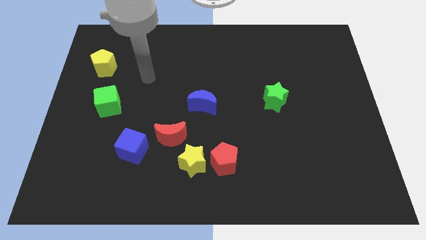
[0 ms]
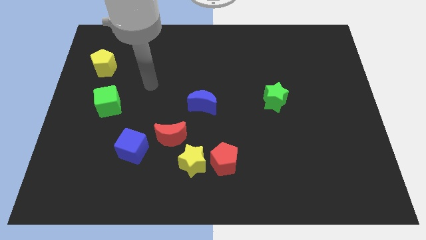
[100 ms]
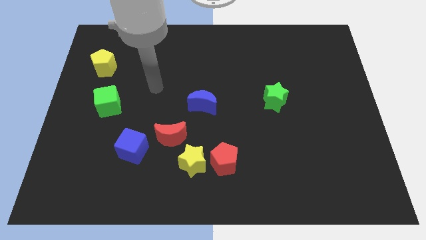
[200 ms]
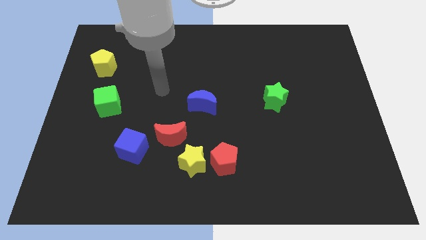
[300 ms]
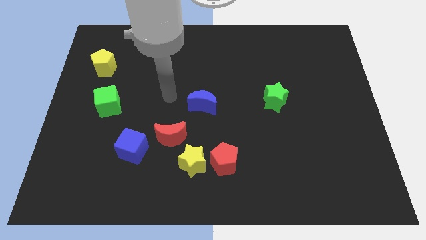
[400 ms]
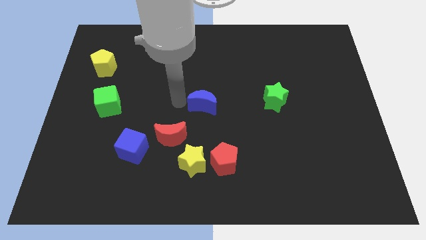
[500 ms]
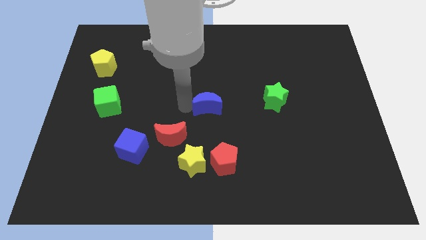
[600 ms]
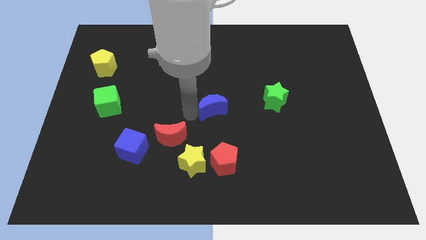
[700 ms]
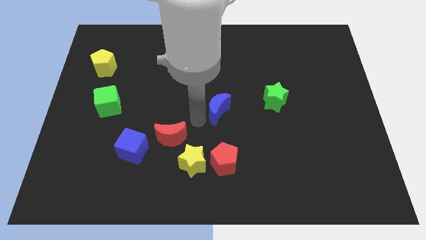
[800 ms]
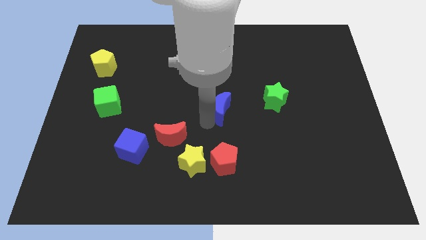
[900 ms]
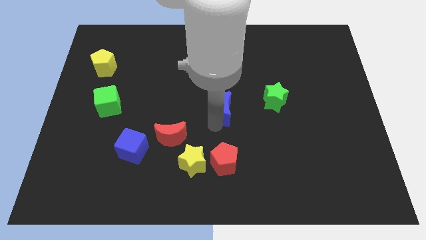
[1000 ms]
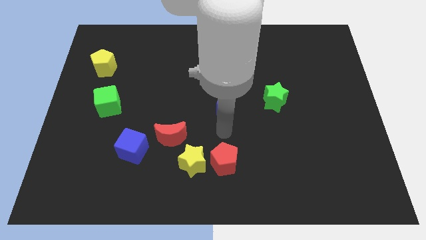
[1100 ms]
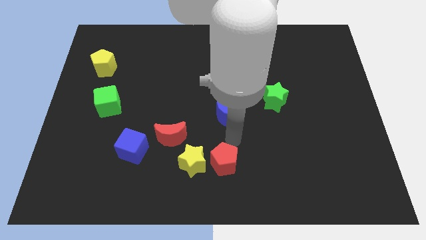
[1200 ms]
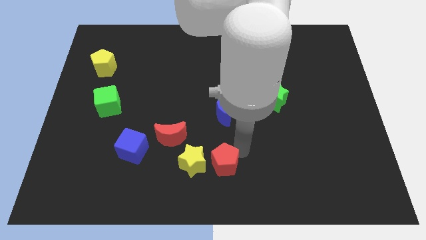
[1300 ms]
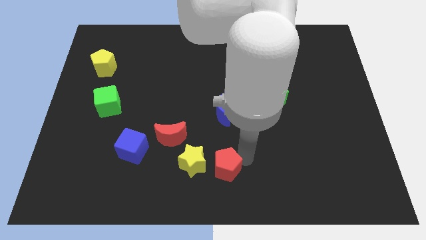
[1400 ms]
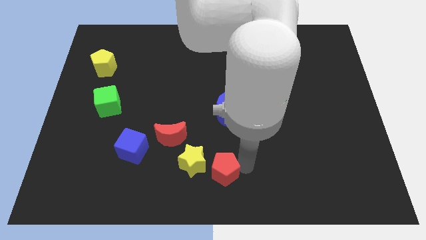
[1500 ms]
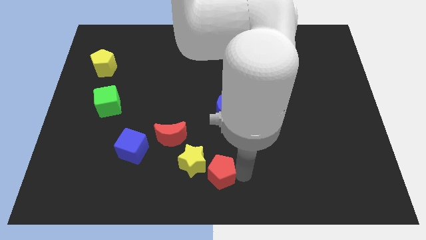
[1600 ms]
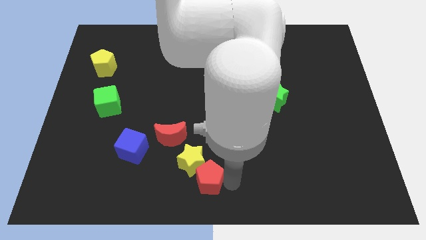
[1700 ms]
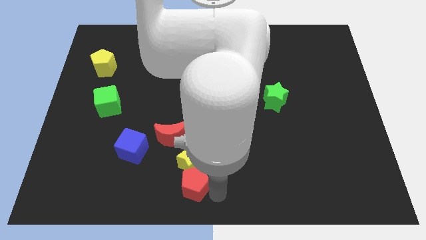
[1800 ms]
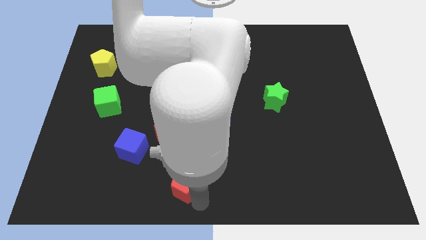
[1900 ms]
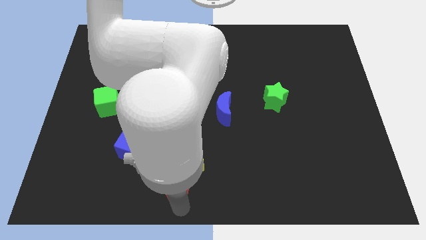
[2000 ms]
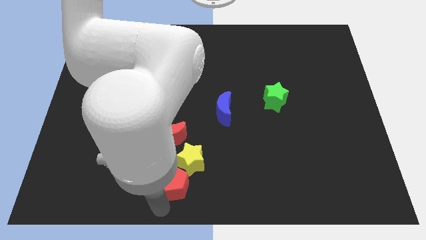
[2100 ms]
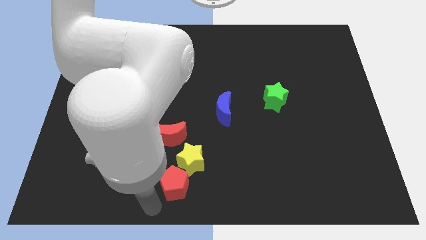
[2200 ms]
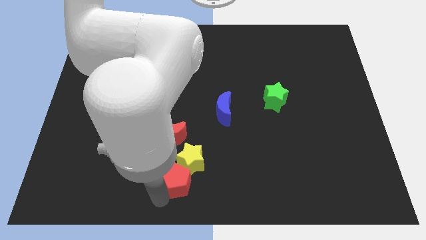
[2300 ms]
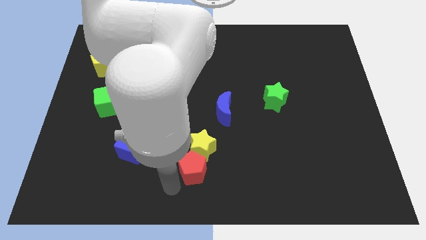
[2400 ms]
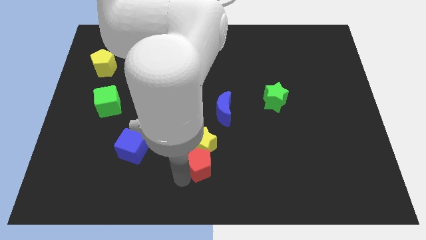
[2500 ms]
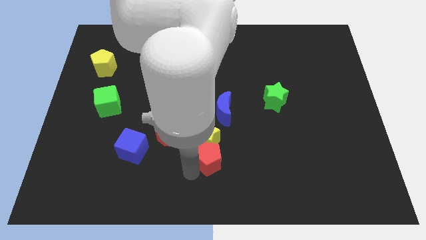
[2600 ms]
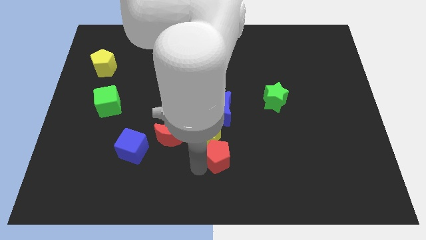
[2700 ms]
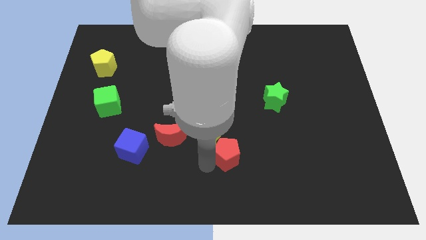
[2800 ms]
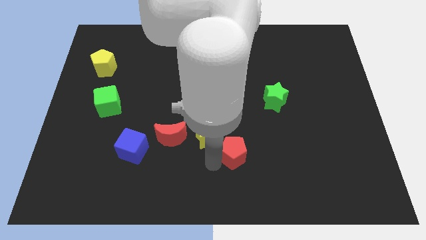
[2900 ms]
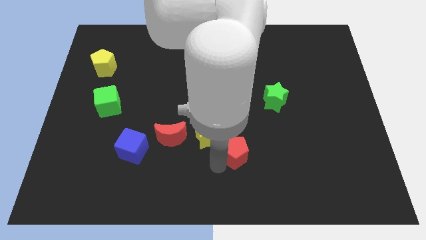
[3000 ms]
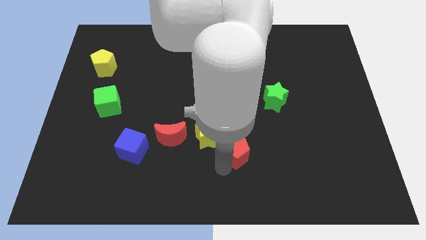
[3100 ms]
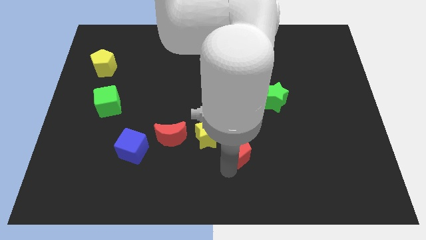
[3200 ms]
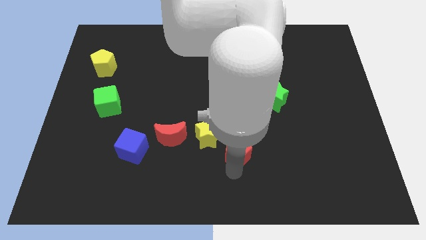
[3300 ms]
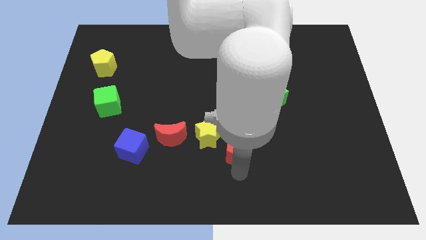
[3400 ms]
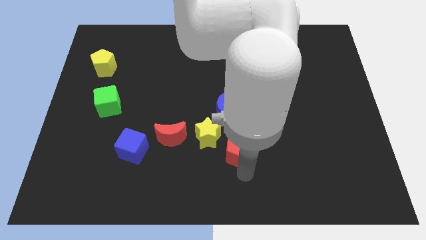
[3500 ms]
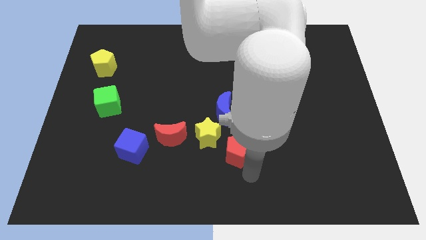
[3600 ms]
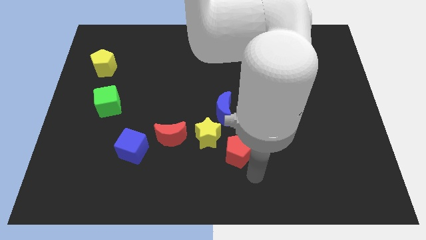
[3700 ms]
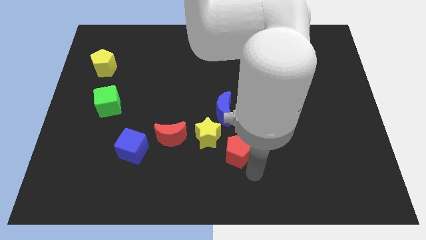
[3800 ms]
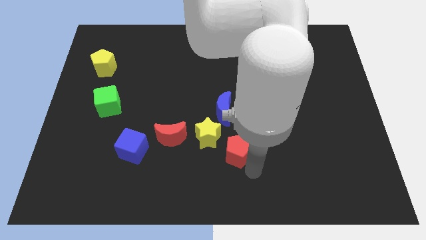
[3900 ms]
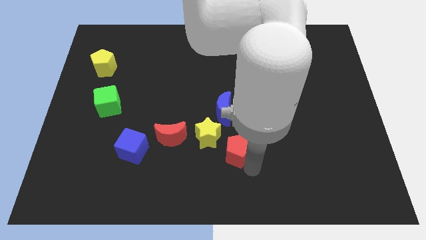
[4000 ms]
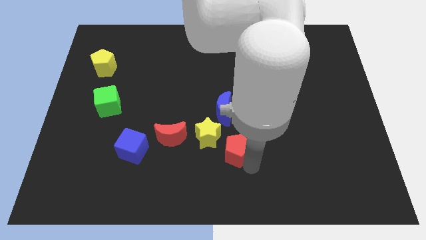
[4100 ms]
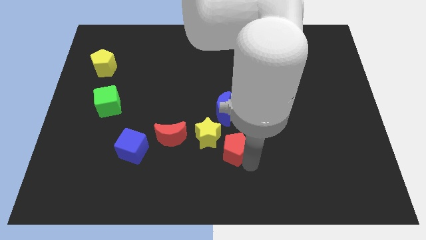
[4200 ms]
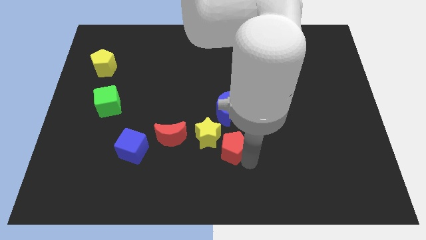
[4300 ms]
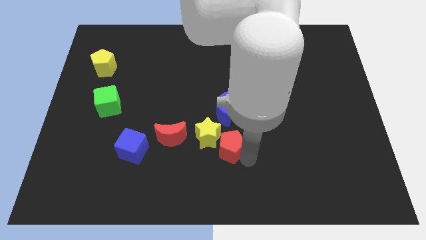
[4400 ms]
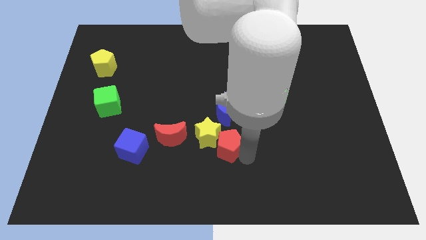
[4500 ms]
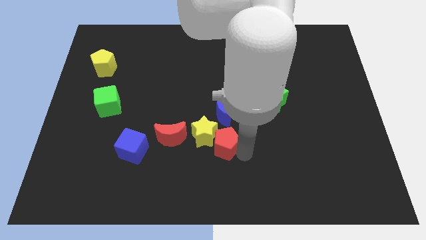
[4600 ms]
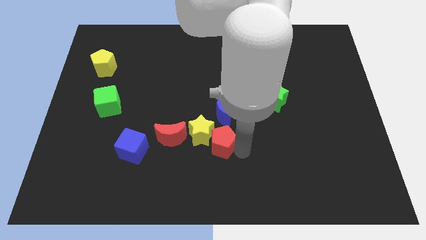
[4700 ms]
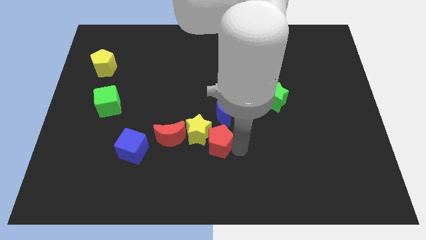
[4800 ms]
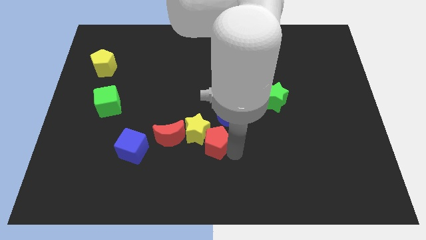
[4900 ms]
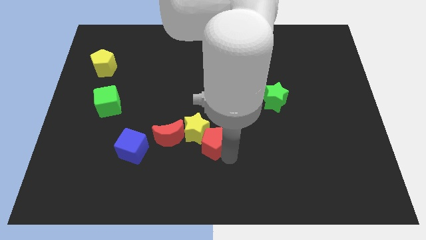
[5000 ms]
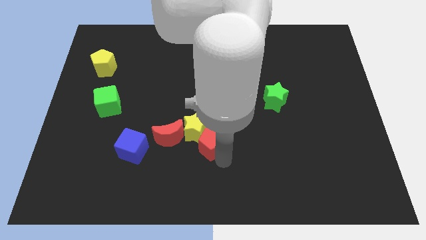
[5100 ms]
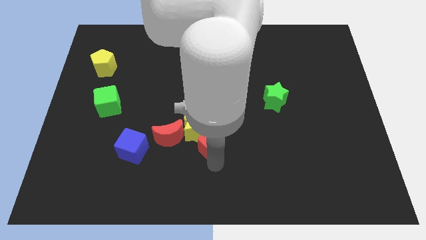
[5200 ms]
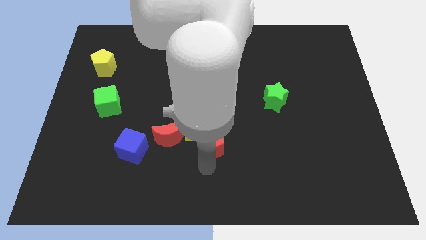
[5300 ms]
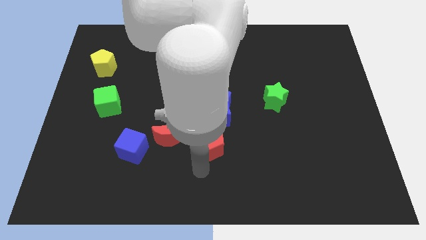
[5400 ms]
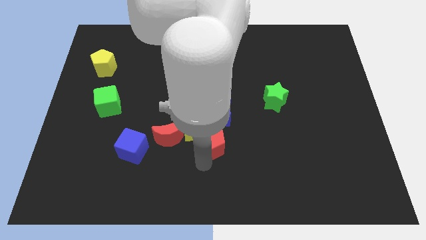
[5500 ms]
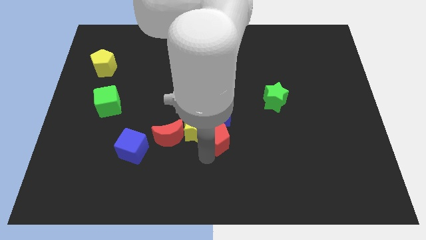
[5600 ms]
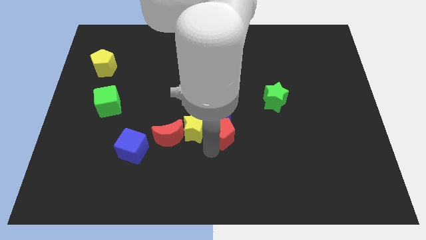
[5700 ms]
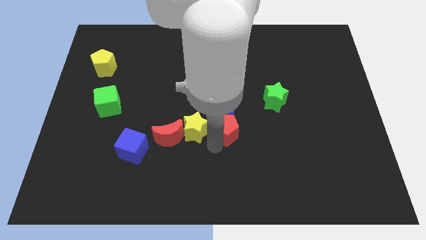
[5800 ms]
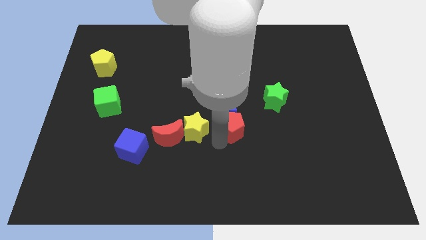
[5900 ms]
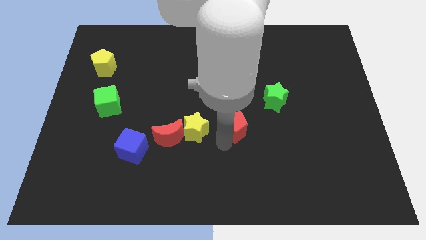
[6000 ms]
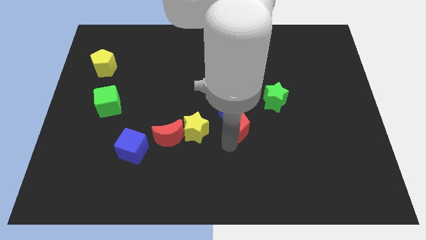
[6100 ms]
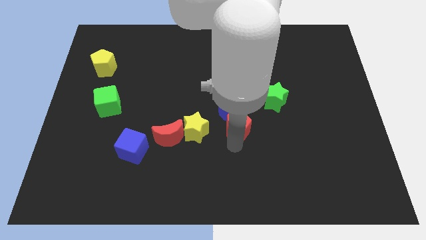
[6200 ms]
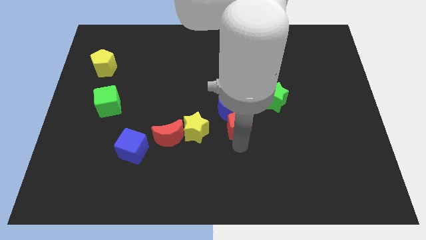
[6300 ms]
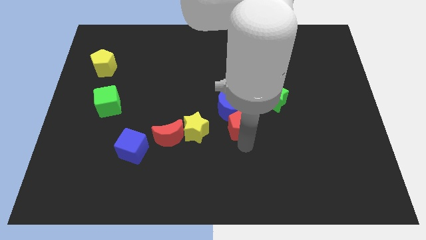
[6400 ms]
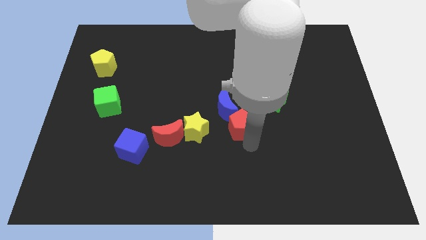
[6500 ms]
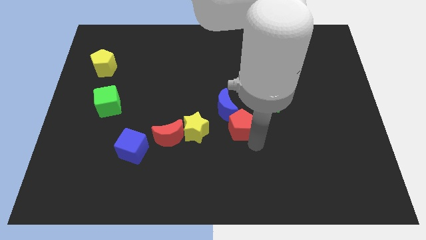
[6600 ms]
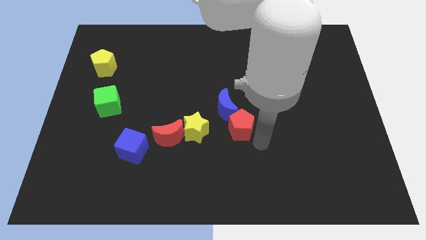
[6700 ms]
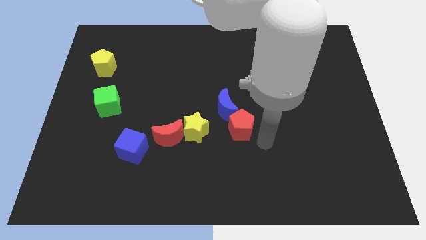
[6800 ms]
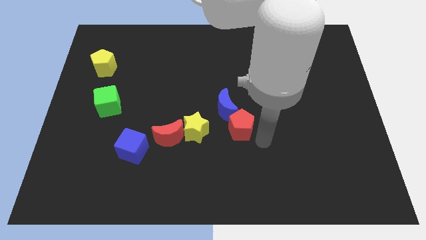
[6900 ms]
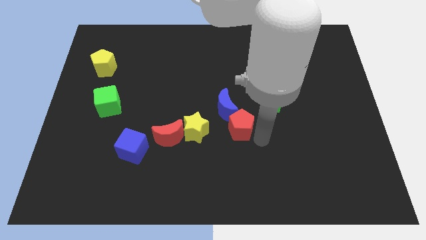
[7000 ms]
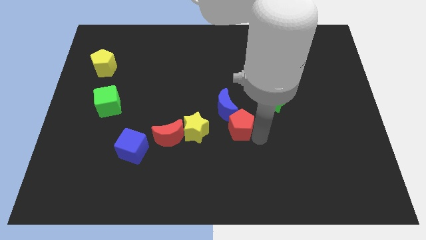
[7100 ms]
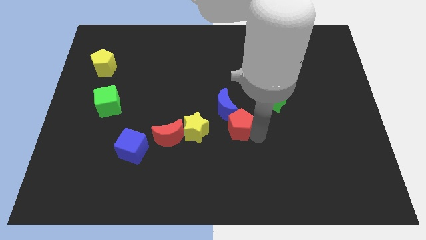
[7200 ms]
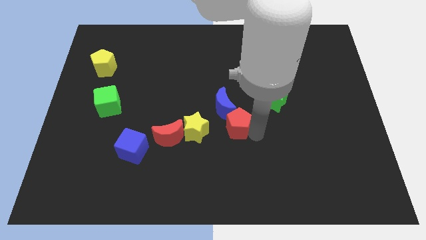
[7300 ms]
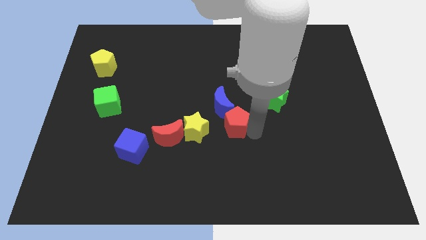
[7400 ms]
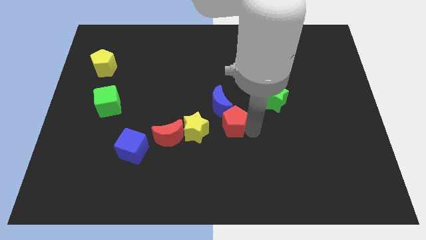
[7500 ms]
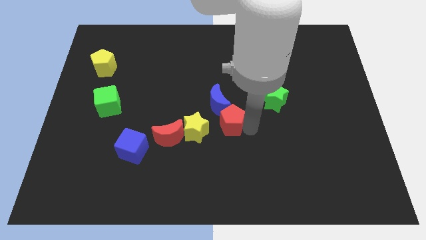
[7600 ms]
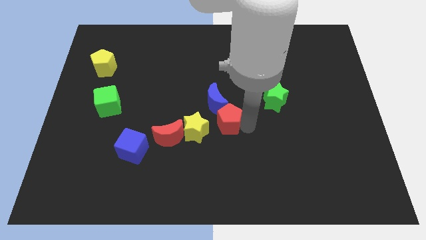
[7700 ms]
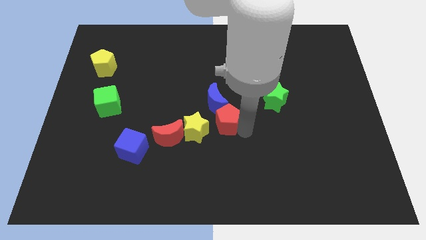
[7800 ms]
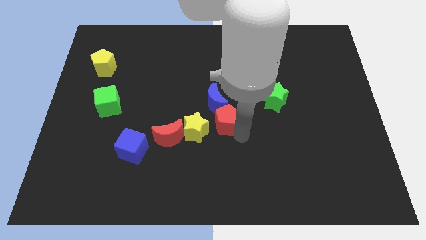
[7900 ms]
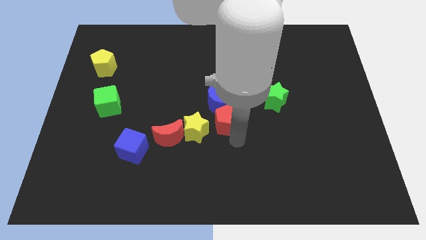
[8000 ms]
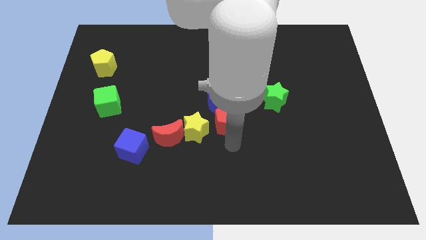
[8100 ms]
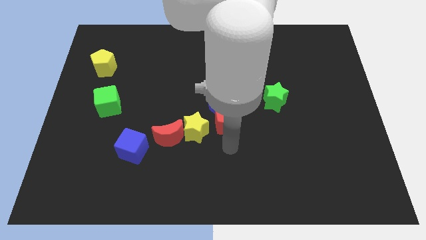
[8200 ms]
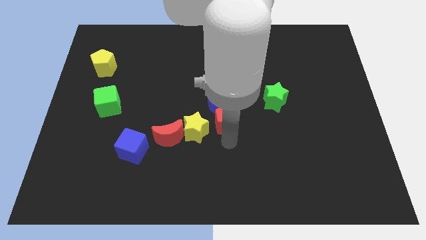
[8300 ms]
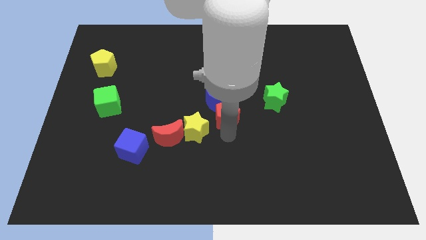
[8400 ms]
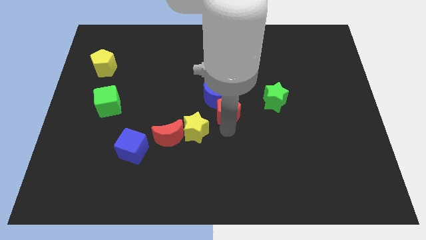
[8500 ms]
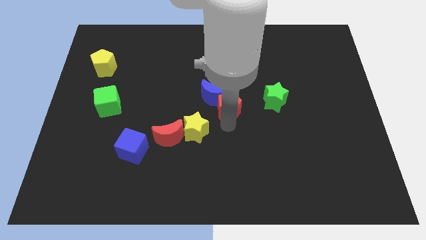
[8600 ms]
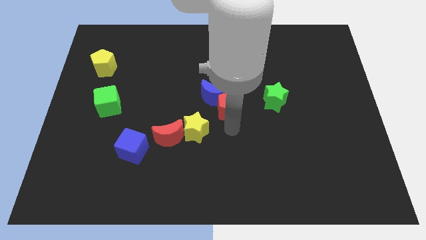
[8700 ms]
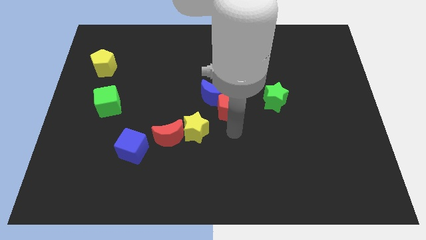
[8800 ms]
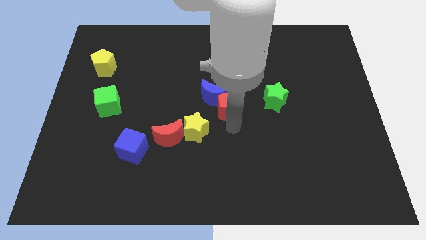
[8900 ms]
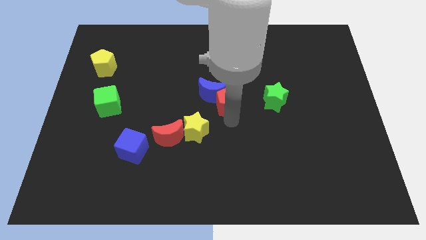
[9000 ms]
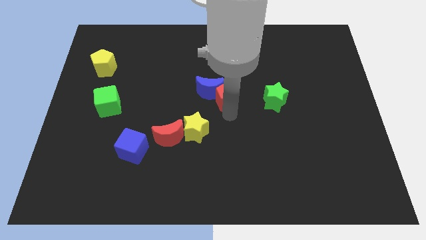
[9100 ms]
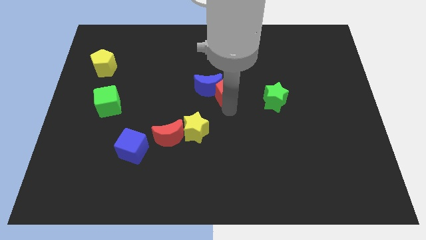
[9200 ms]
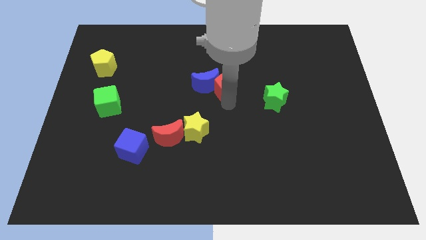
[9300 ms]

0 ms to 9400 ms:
push the red pentagon up
